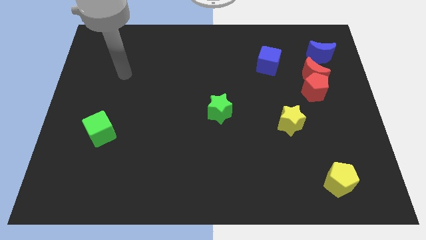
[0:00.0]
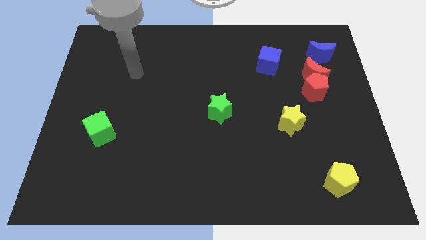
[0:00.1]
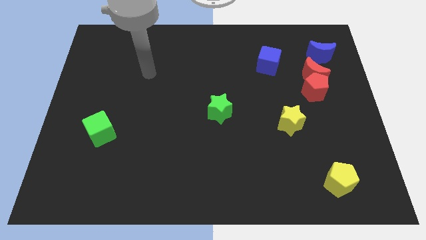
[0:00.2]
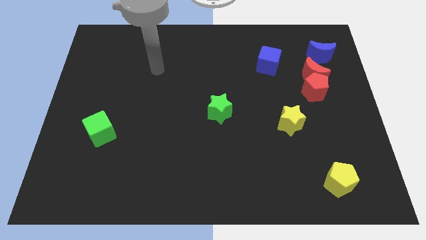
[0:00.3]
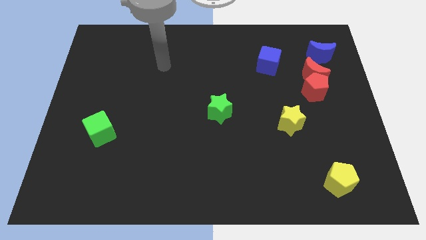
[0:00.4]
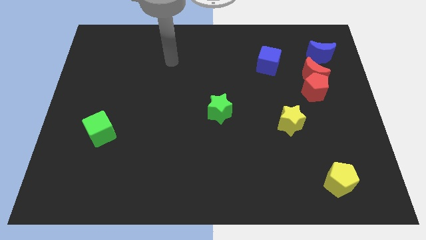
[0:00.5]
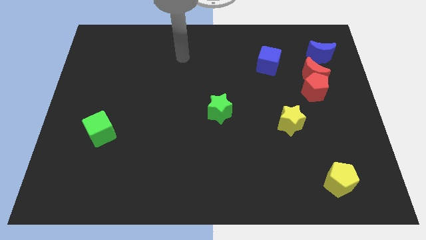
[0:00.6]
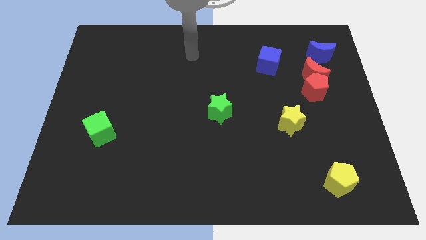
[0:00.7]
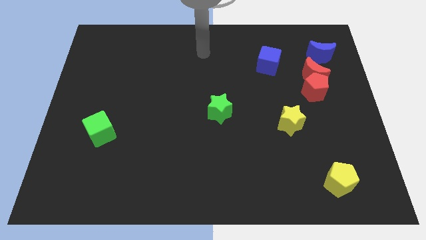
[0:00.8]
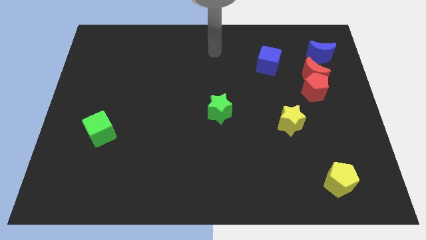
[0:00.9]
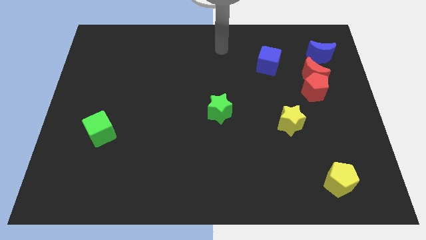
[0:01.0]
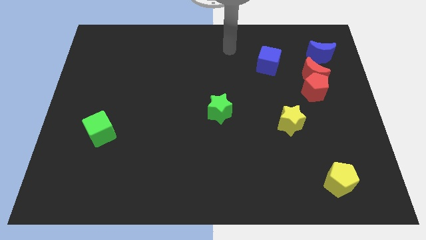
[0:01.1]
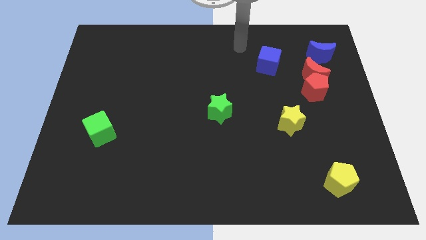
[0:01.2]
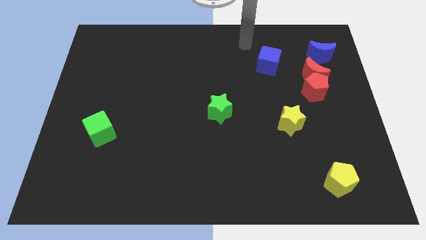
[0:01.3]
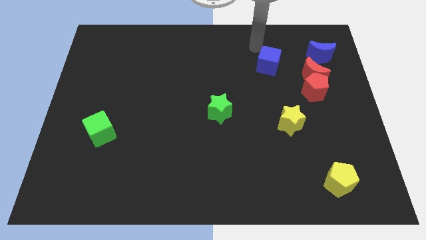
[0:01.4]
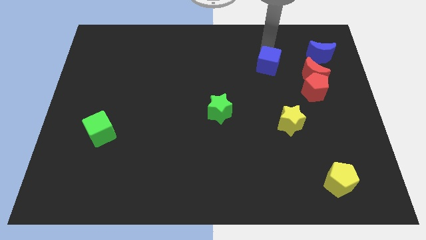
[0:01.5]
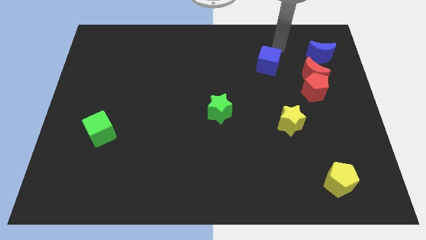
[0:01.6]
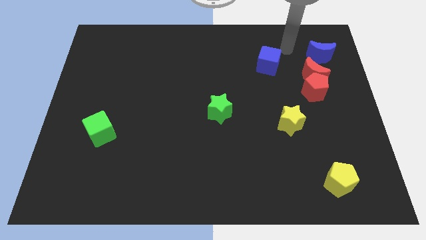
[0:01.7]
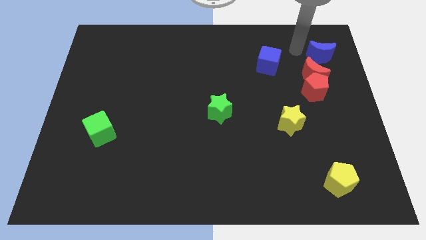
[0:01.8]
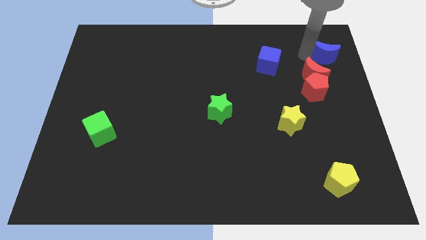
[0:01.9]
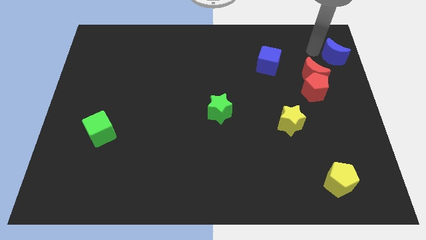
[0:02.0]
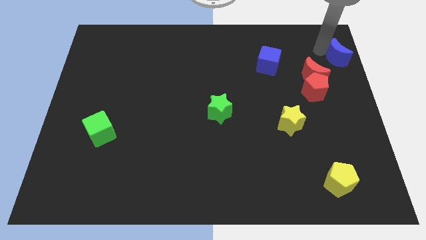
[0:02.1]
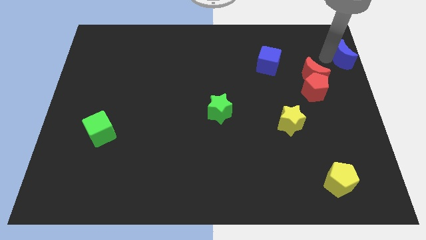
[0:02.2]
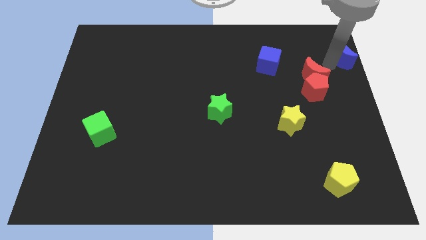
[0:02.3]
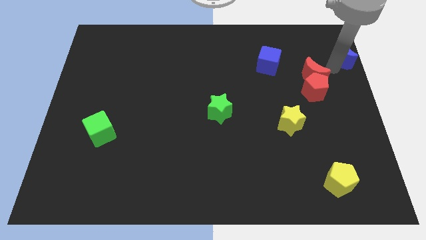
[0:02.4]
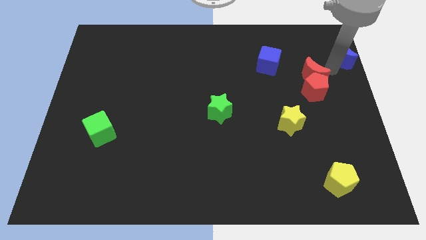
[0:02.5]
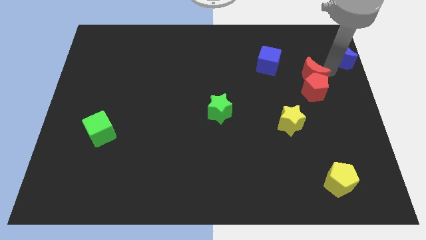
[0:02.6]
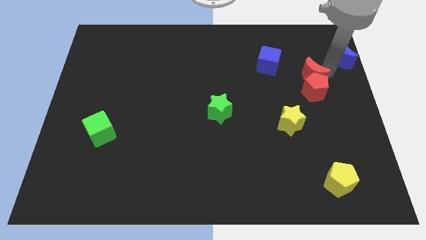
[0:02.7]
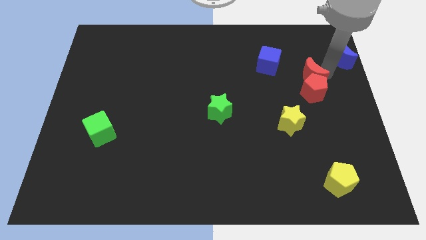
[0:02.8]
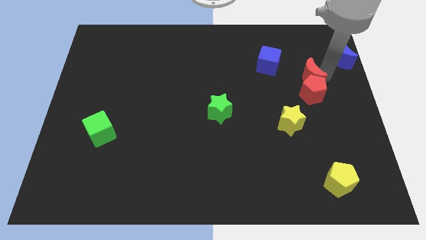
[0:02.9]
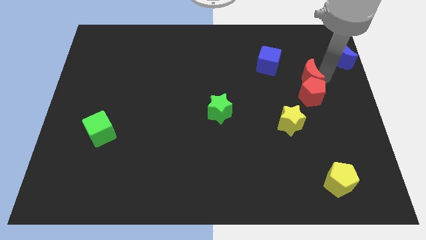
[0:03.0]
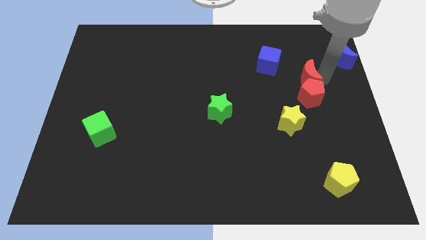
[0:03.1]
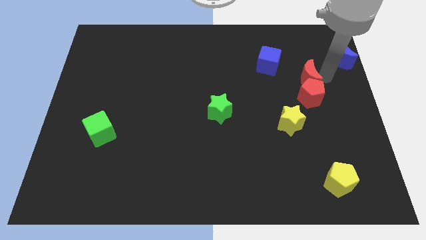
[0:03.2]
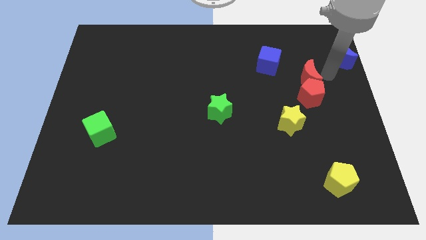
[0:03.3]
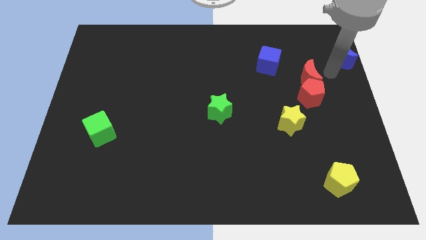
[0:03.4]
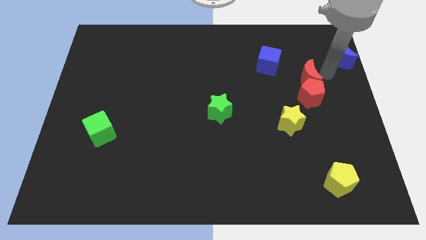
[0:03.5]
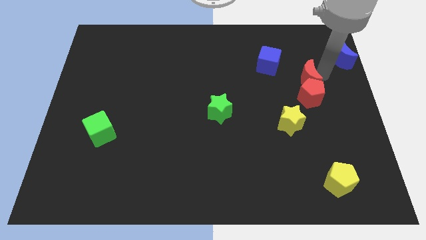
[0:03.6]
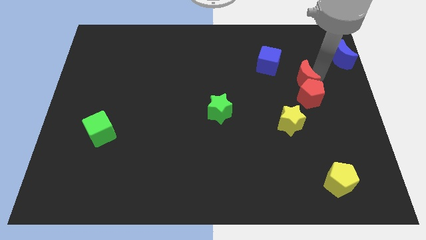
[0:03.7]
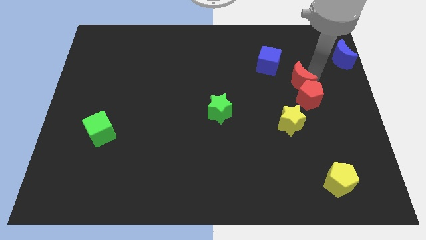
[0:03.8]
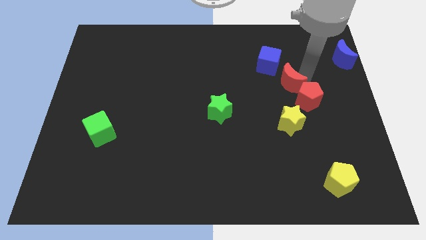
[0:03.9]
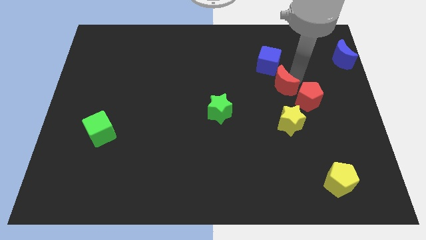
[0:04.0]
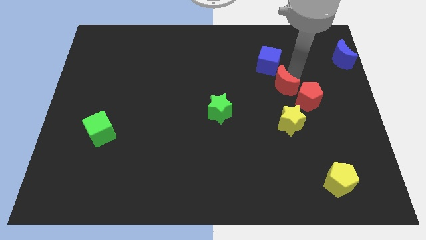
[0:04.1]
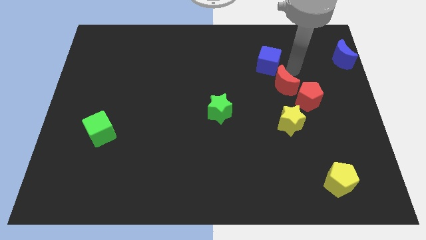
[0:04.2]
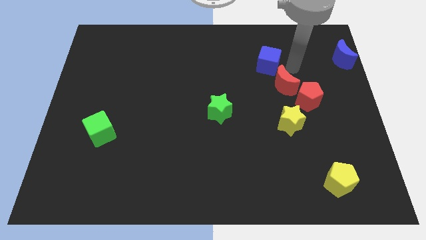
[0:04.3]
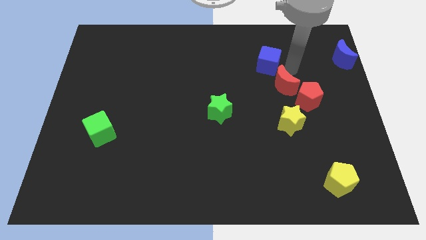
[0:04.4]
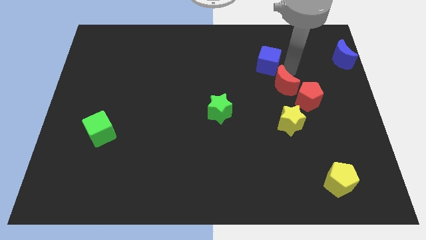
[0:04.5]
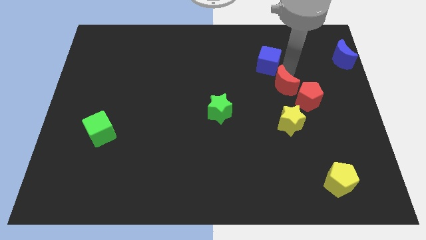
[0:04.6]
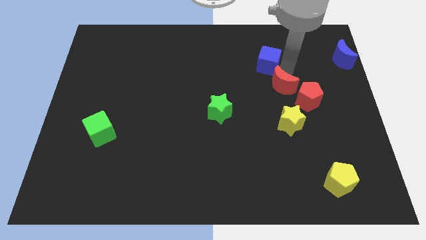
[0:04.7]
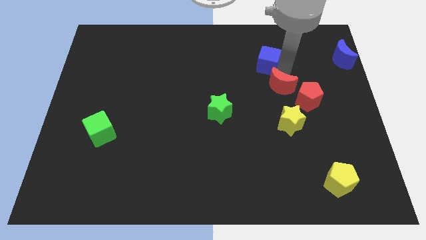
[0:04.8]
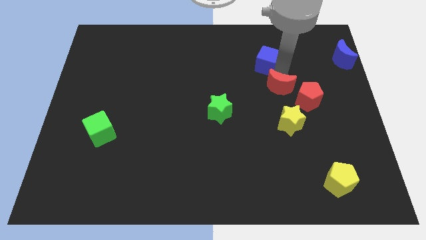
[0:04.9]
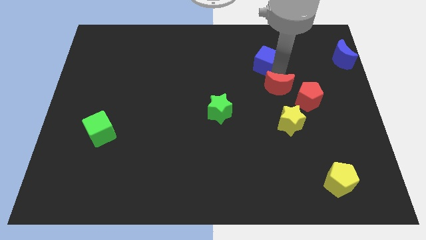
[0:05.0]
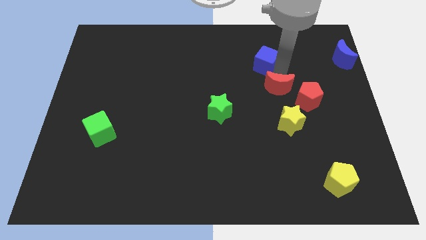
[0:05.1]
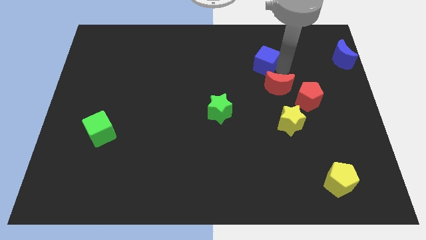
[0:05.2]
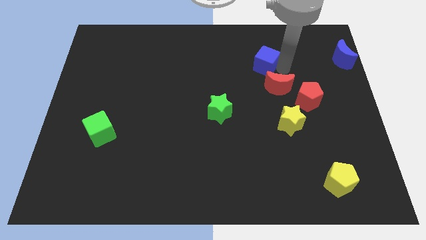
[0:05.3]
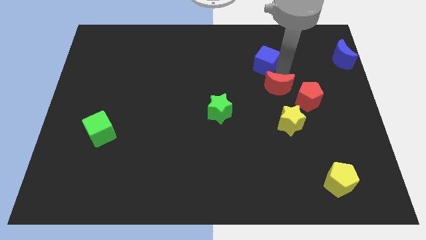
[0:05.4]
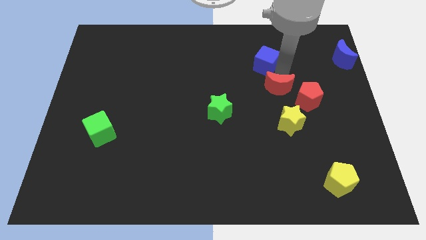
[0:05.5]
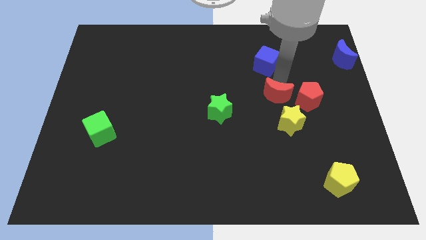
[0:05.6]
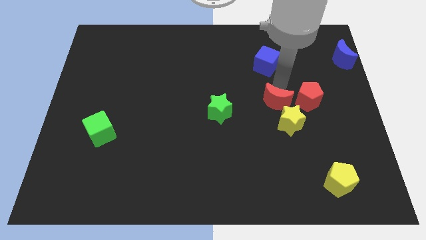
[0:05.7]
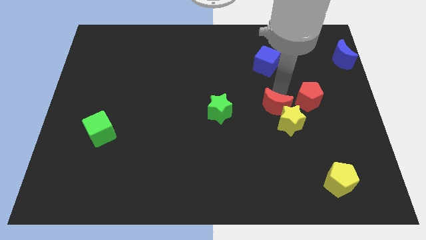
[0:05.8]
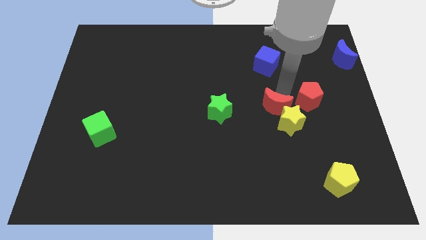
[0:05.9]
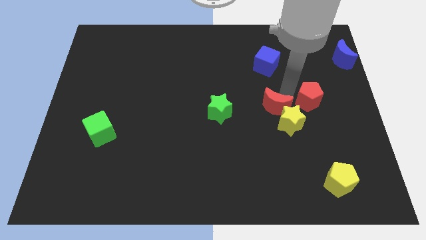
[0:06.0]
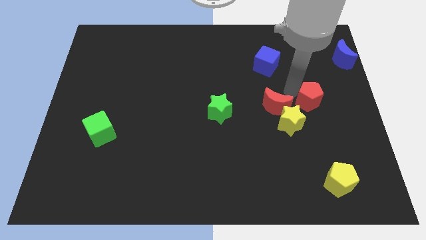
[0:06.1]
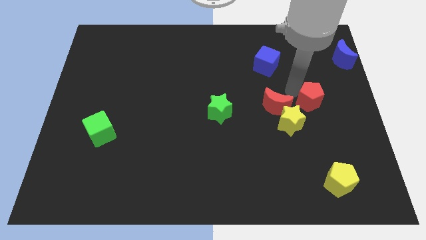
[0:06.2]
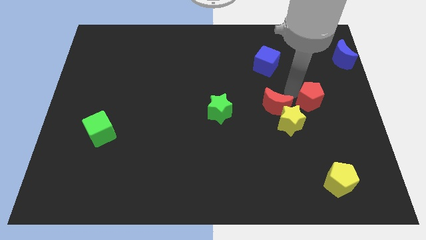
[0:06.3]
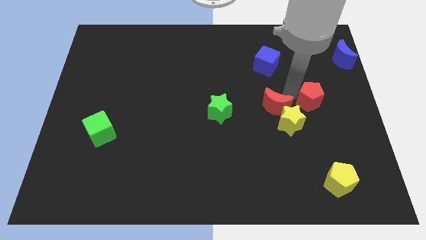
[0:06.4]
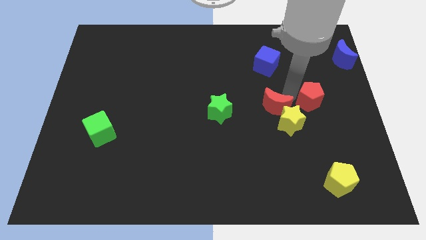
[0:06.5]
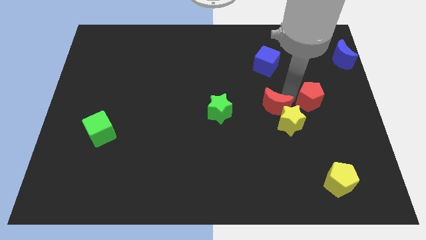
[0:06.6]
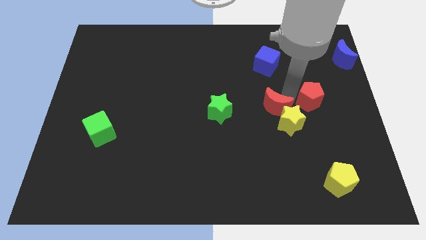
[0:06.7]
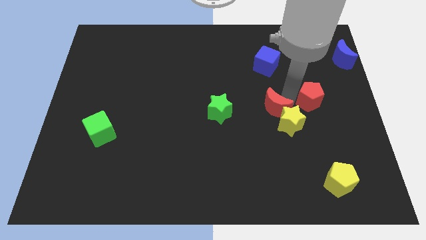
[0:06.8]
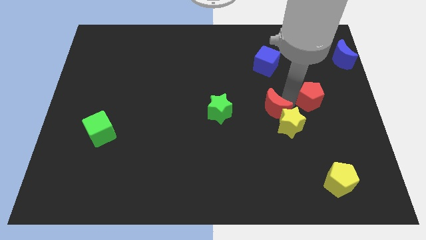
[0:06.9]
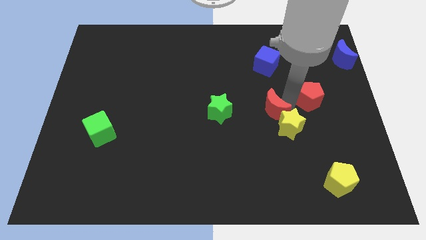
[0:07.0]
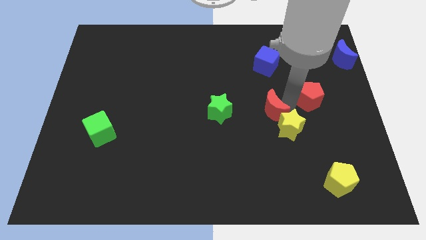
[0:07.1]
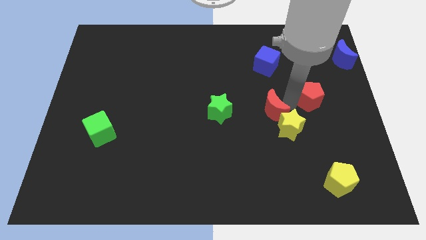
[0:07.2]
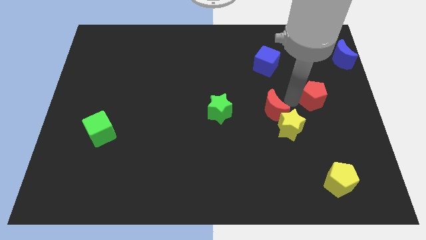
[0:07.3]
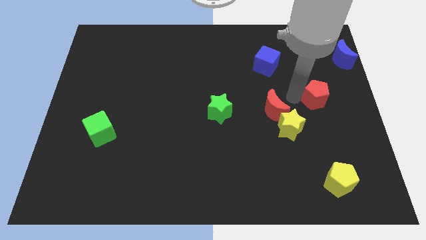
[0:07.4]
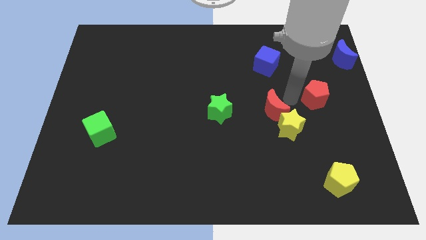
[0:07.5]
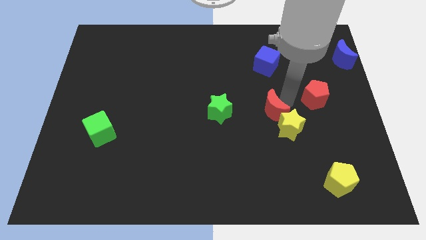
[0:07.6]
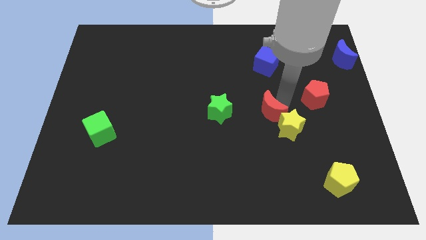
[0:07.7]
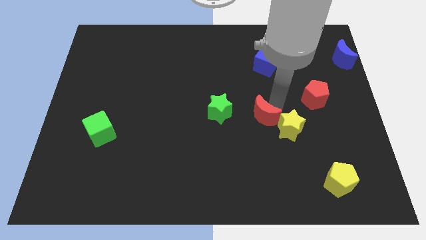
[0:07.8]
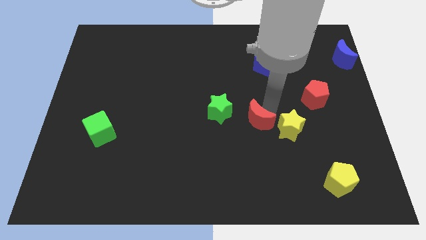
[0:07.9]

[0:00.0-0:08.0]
push the red moon diagonally downwards and to the left
